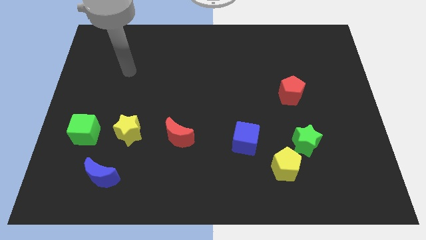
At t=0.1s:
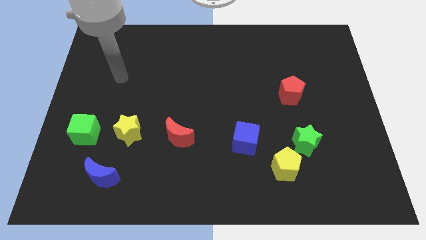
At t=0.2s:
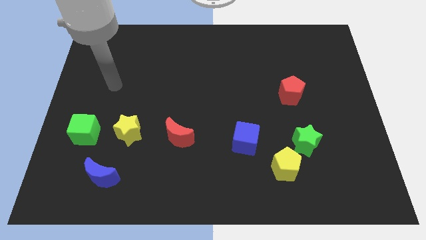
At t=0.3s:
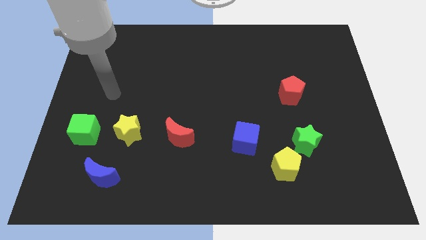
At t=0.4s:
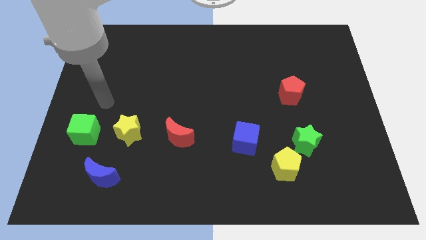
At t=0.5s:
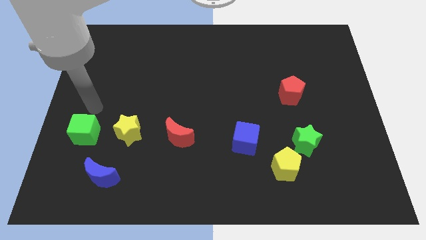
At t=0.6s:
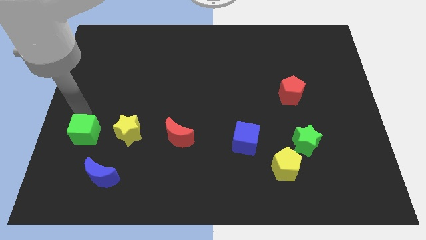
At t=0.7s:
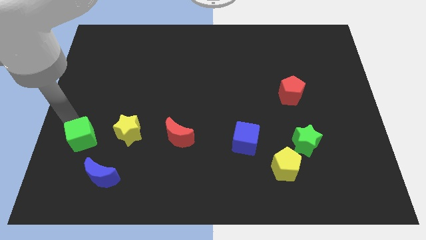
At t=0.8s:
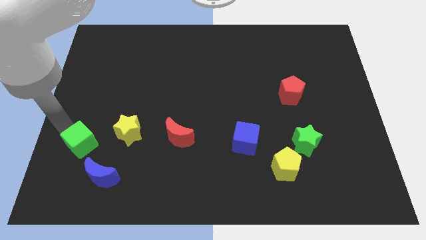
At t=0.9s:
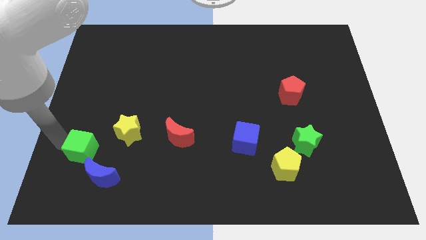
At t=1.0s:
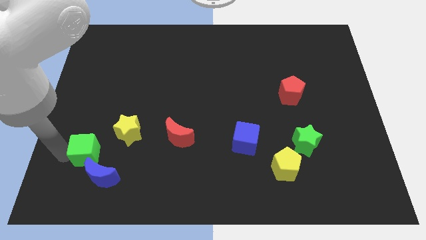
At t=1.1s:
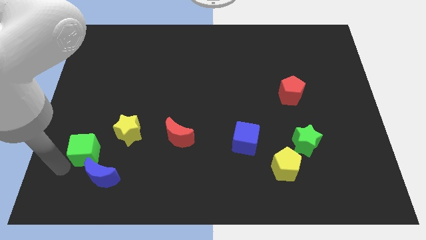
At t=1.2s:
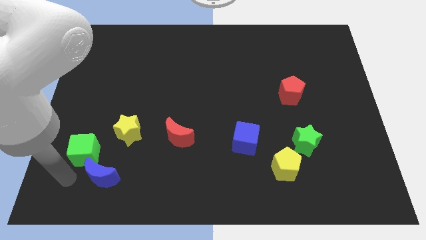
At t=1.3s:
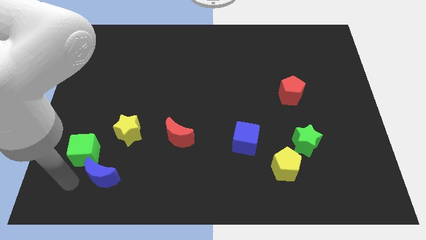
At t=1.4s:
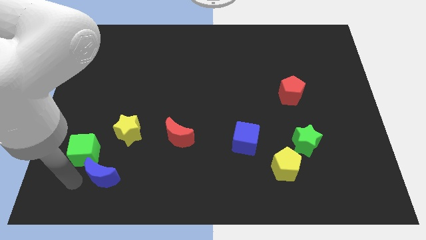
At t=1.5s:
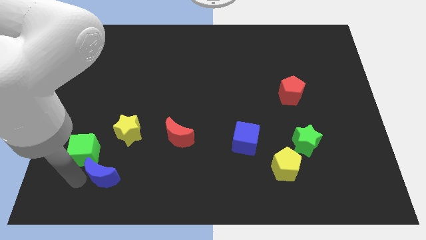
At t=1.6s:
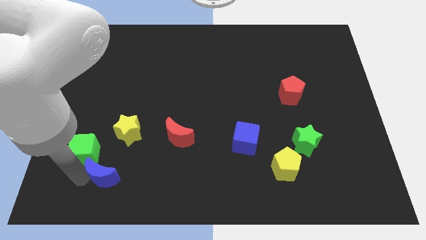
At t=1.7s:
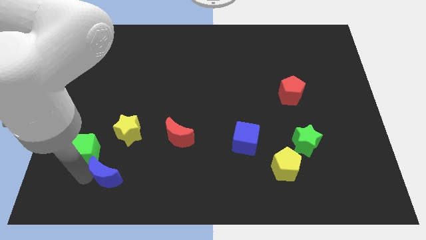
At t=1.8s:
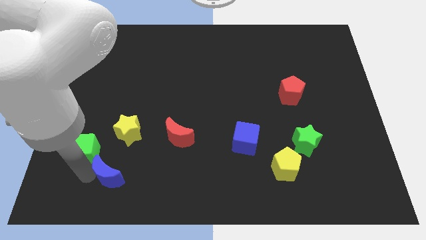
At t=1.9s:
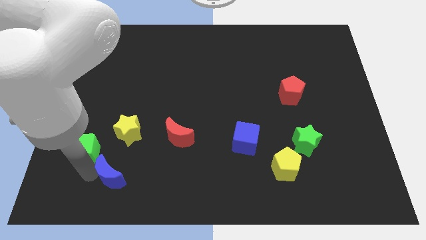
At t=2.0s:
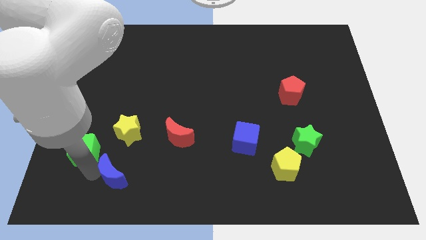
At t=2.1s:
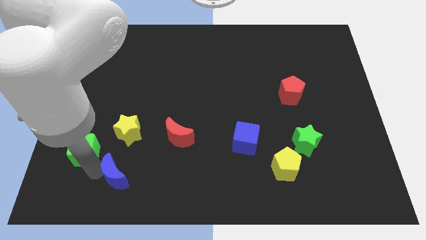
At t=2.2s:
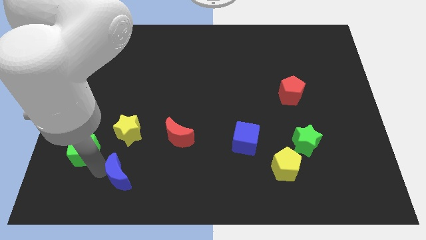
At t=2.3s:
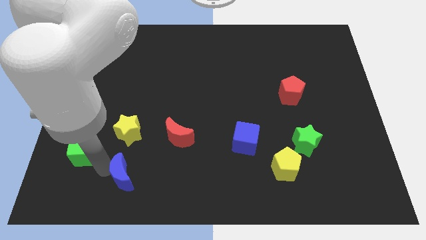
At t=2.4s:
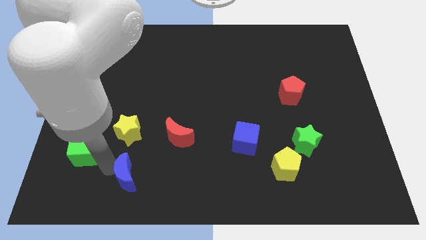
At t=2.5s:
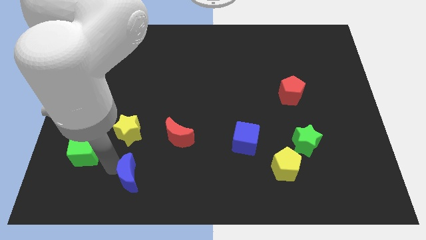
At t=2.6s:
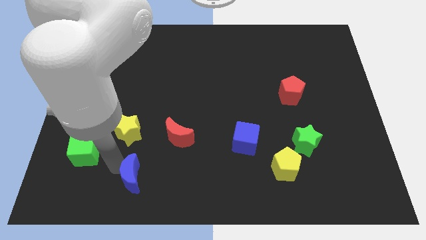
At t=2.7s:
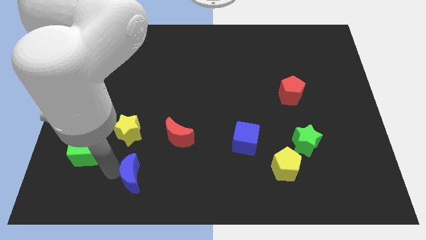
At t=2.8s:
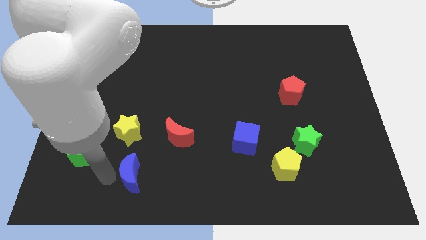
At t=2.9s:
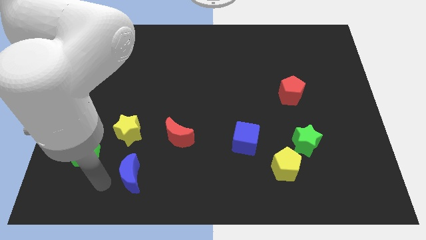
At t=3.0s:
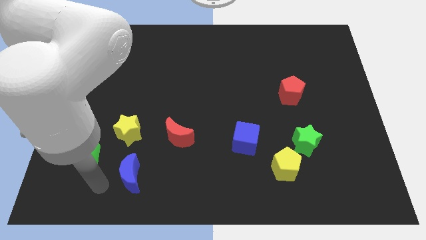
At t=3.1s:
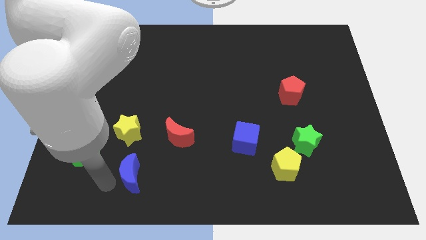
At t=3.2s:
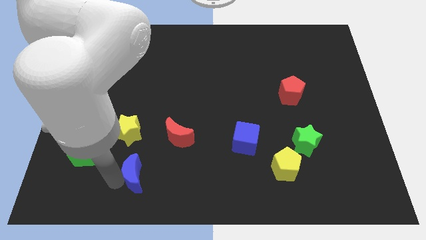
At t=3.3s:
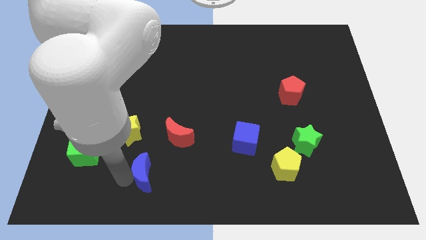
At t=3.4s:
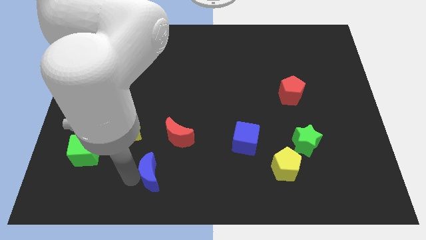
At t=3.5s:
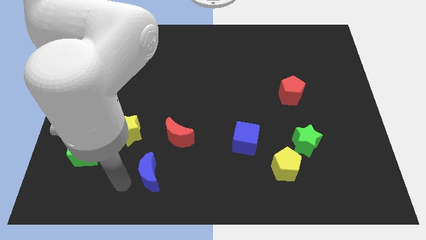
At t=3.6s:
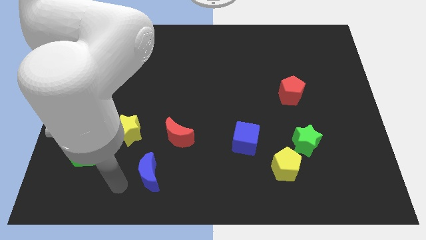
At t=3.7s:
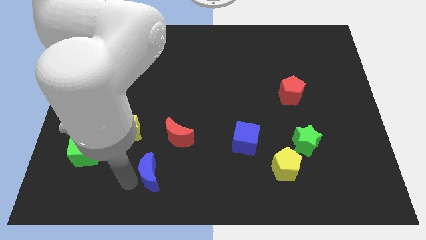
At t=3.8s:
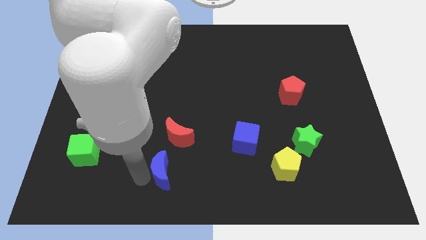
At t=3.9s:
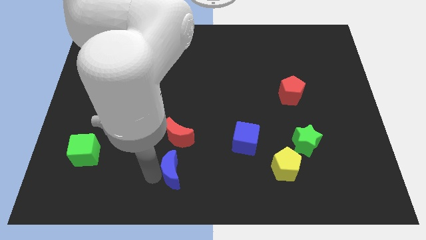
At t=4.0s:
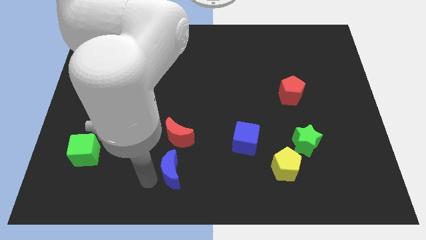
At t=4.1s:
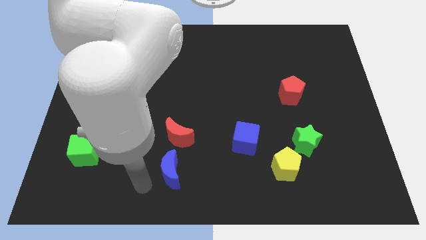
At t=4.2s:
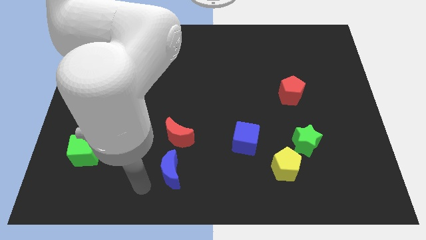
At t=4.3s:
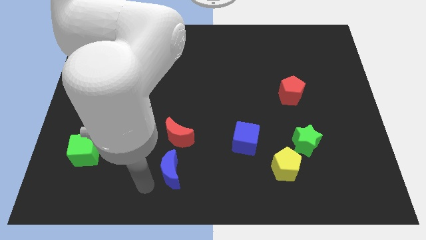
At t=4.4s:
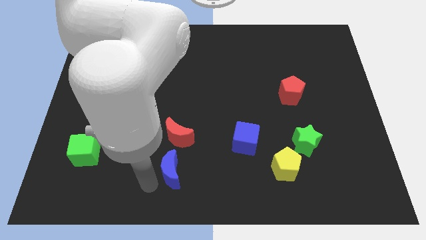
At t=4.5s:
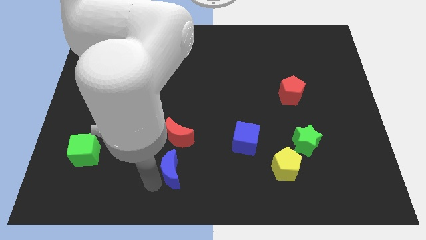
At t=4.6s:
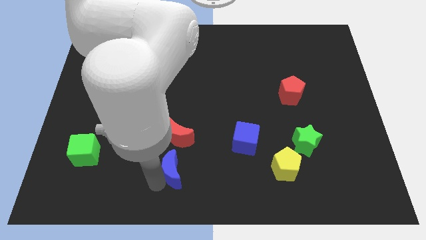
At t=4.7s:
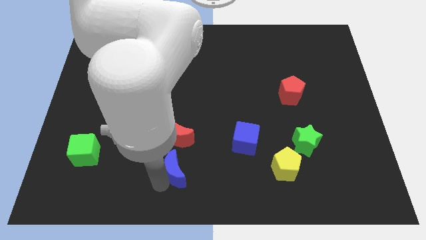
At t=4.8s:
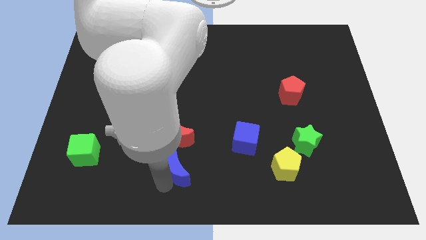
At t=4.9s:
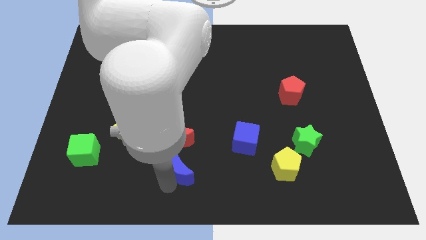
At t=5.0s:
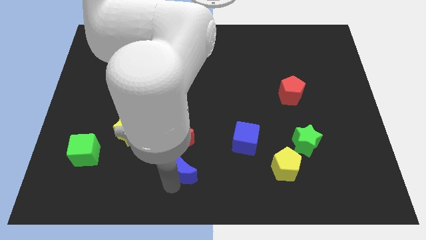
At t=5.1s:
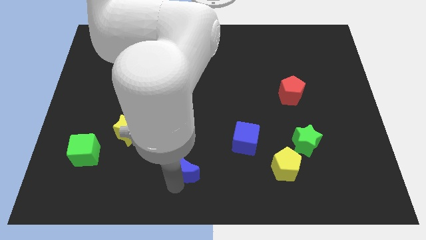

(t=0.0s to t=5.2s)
push the blue moon to the bottom right side of the red moon

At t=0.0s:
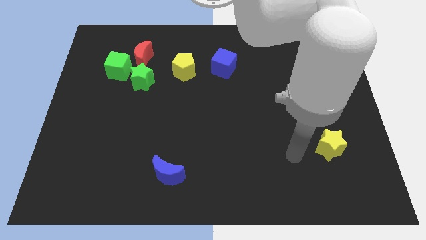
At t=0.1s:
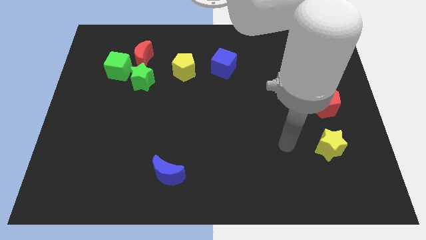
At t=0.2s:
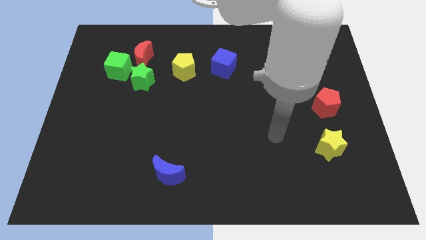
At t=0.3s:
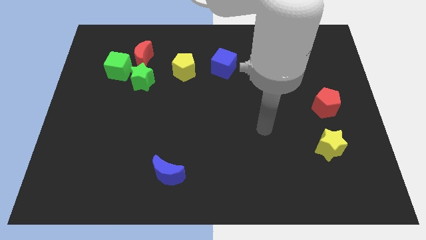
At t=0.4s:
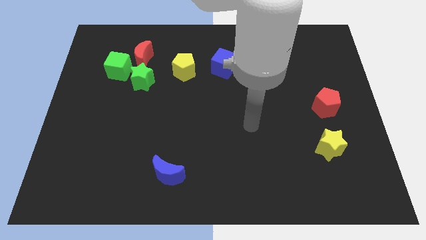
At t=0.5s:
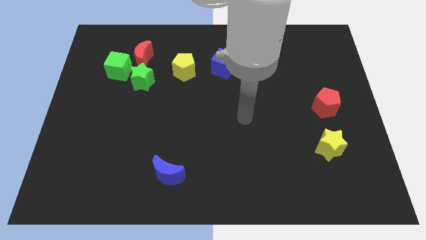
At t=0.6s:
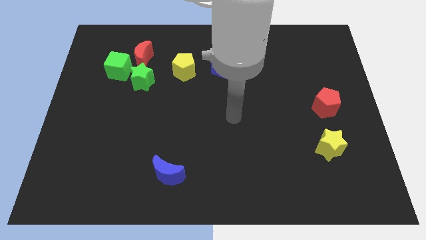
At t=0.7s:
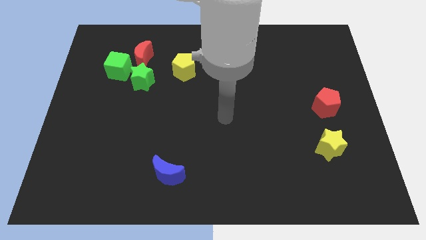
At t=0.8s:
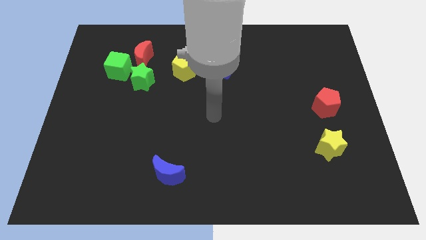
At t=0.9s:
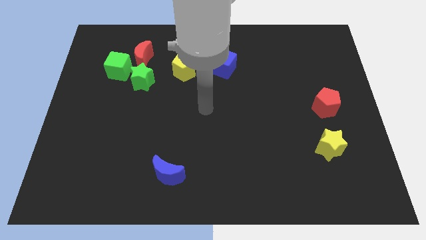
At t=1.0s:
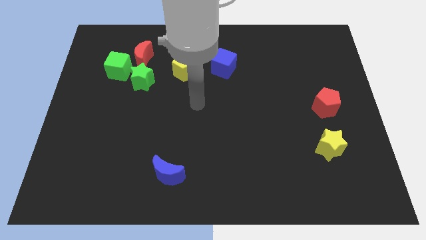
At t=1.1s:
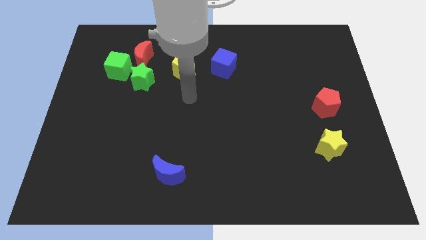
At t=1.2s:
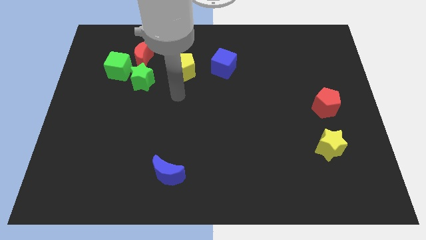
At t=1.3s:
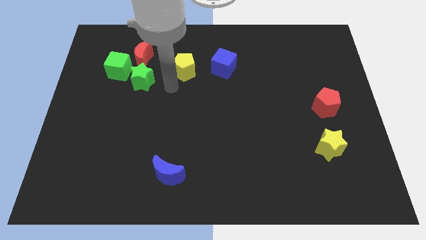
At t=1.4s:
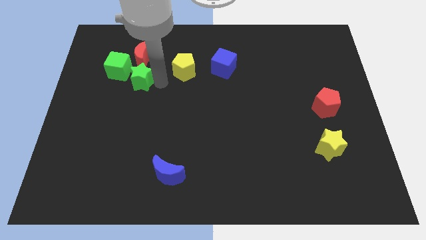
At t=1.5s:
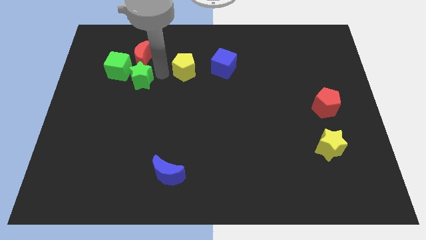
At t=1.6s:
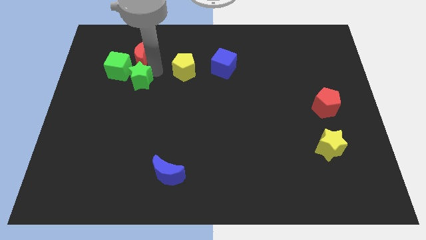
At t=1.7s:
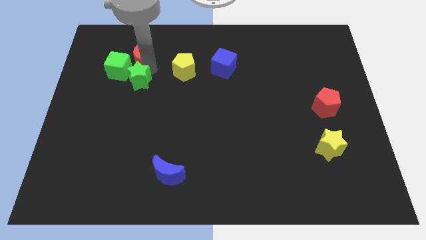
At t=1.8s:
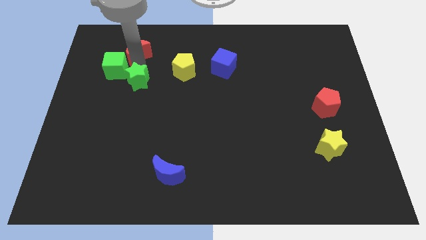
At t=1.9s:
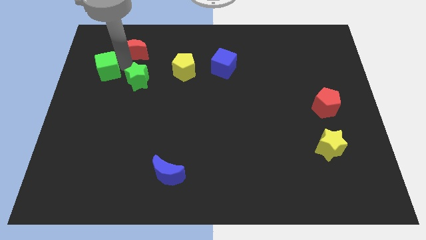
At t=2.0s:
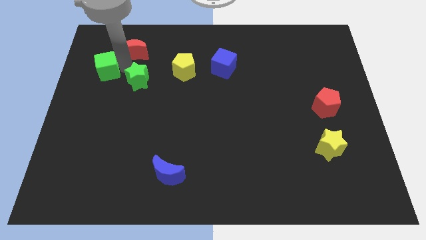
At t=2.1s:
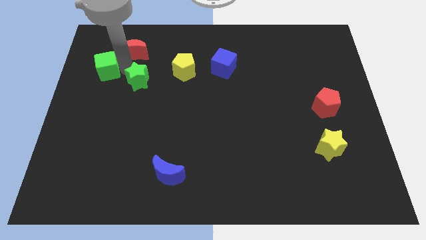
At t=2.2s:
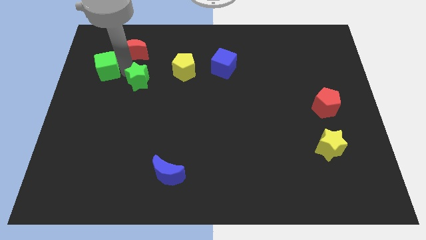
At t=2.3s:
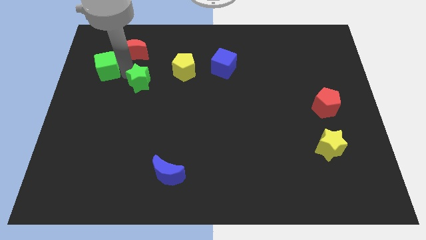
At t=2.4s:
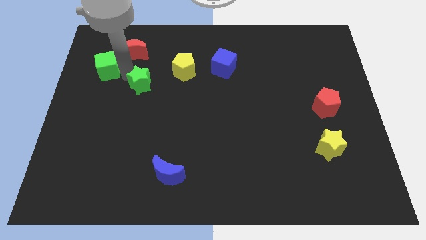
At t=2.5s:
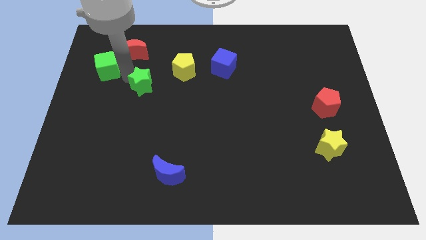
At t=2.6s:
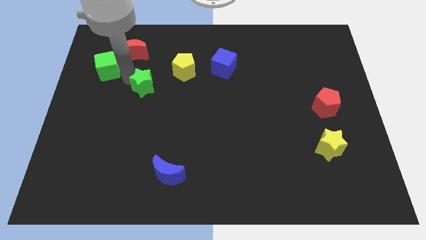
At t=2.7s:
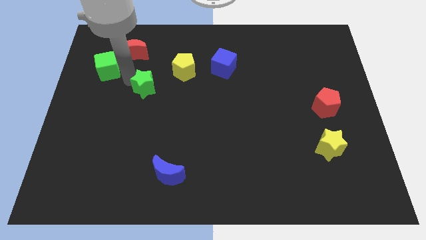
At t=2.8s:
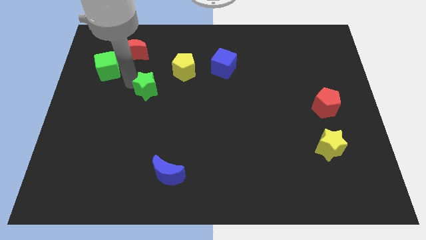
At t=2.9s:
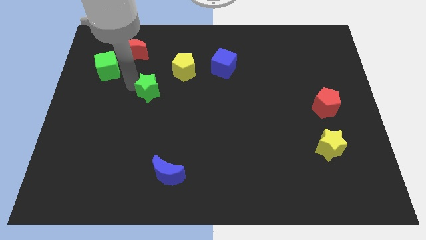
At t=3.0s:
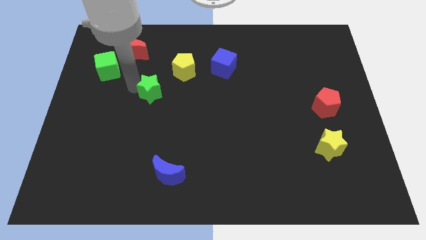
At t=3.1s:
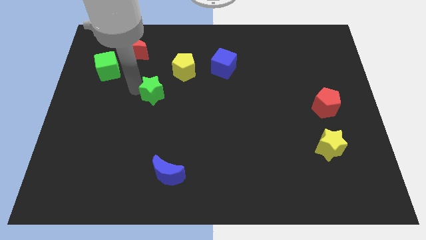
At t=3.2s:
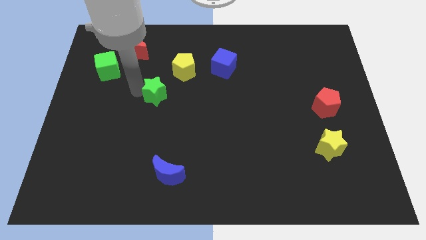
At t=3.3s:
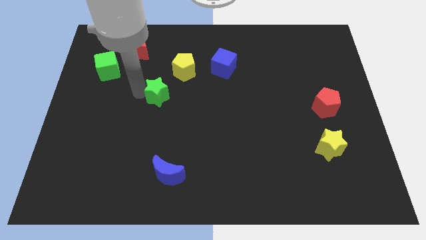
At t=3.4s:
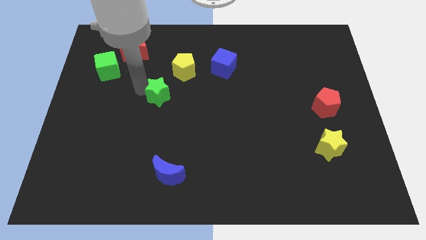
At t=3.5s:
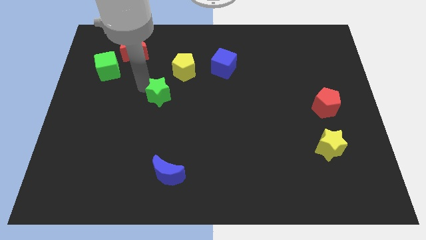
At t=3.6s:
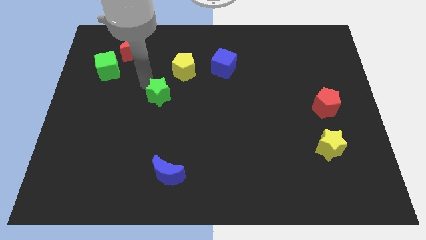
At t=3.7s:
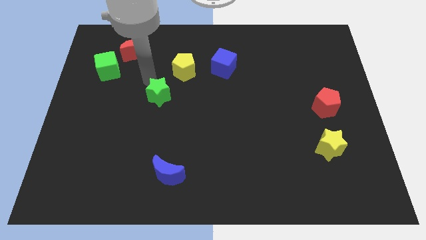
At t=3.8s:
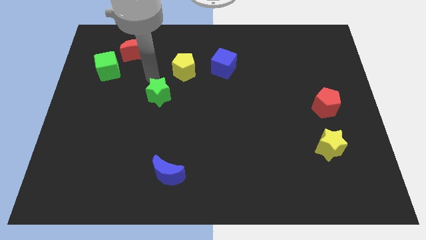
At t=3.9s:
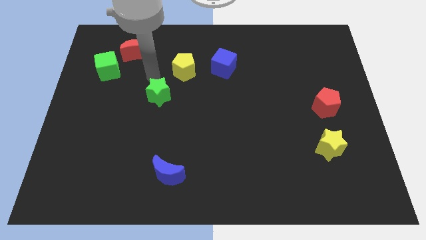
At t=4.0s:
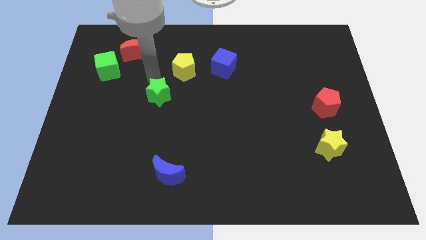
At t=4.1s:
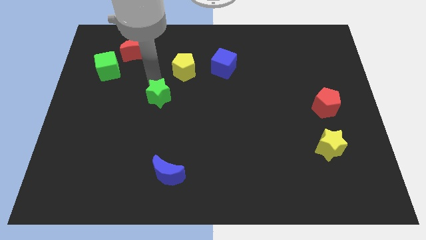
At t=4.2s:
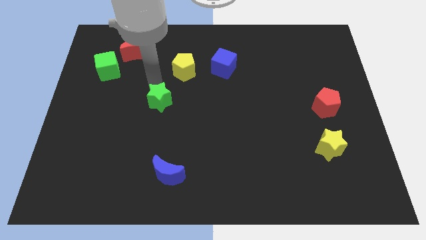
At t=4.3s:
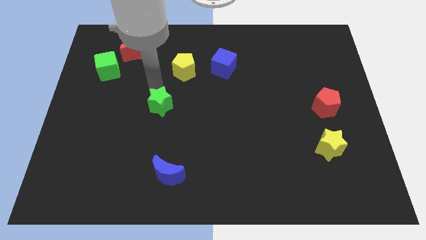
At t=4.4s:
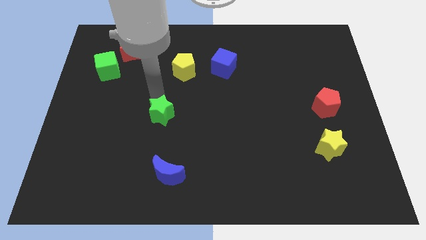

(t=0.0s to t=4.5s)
push the green star to the top side of the blue moon
